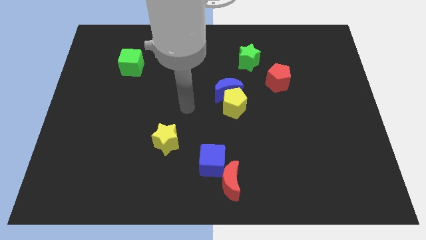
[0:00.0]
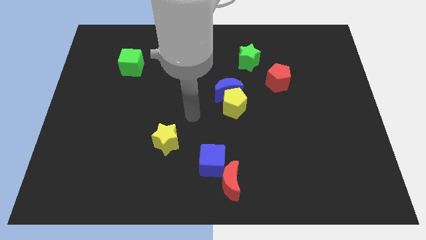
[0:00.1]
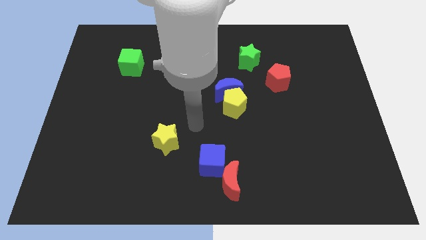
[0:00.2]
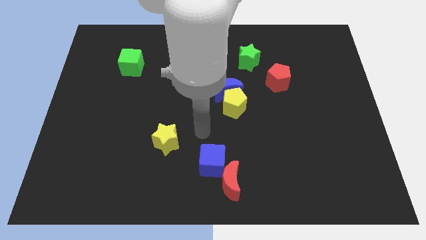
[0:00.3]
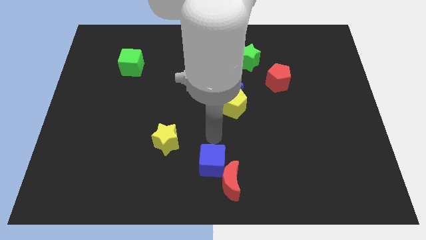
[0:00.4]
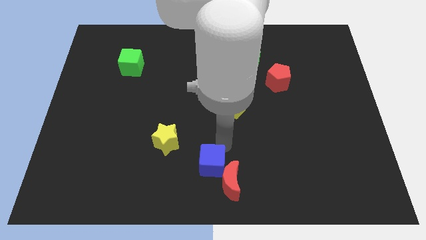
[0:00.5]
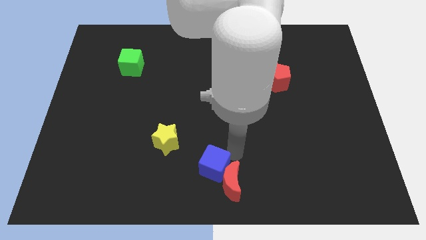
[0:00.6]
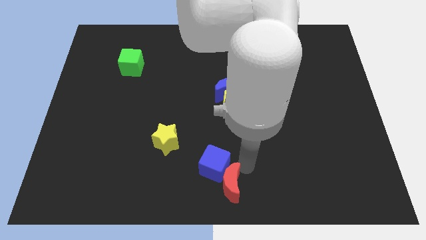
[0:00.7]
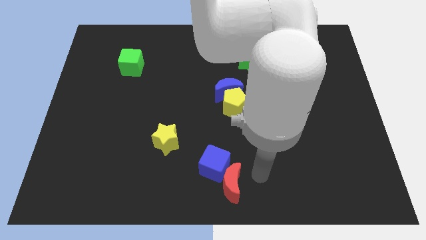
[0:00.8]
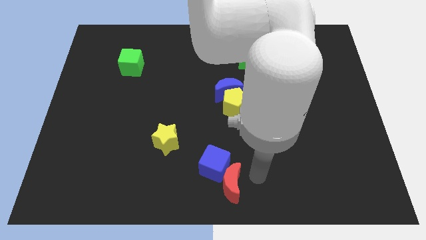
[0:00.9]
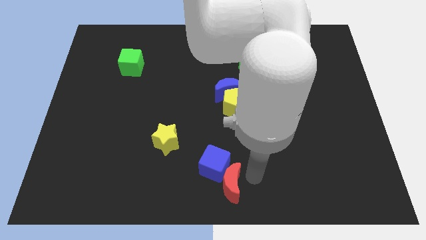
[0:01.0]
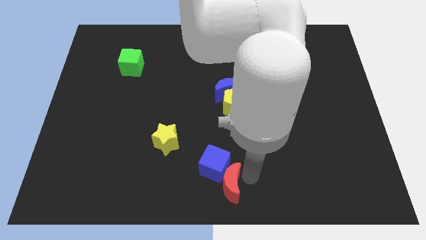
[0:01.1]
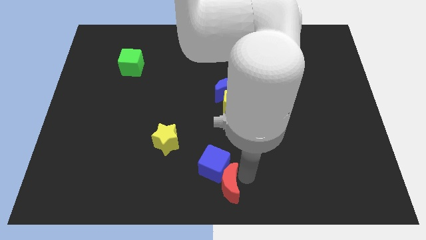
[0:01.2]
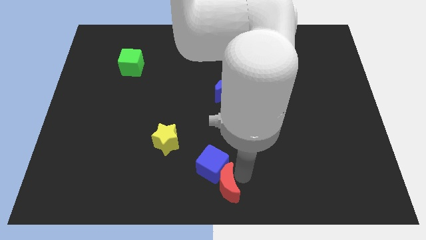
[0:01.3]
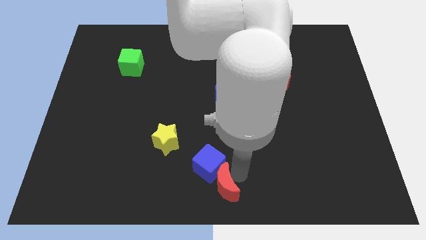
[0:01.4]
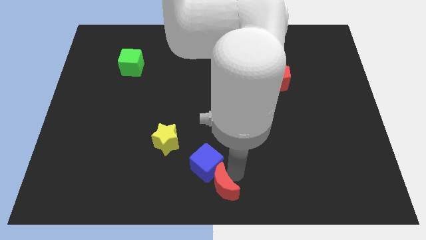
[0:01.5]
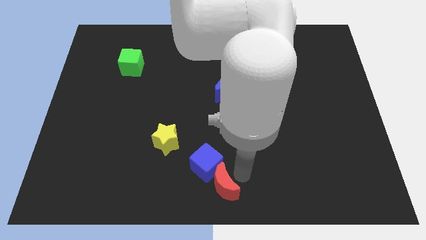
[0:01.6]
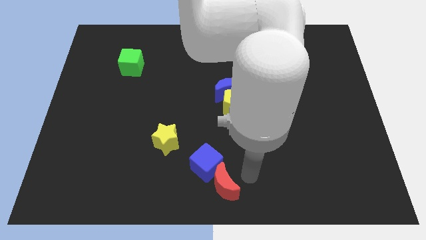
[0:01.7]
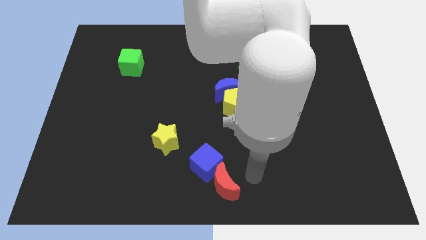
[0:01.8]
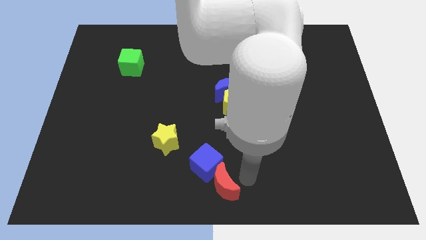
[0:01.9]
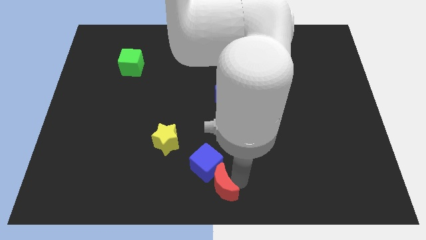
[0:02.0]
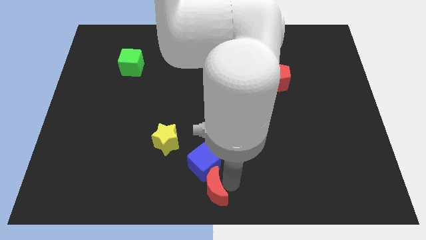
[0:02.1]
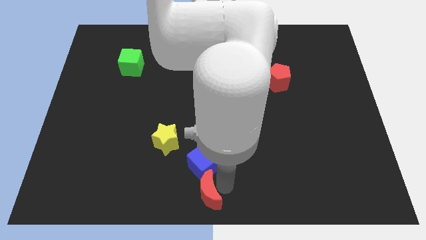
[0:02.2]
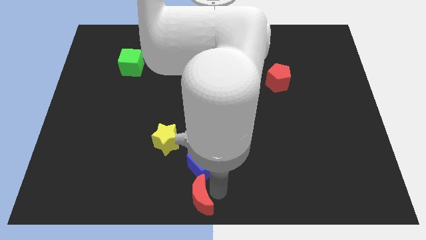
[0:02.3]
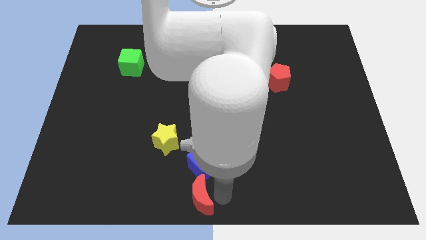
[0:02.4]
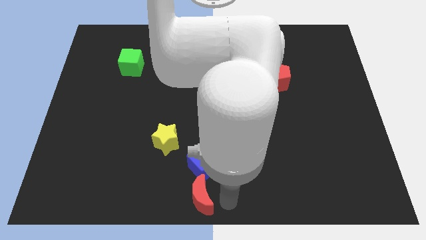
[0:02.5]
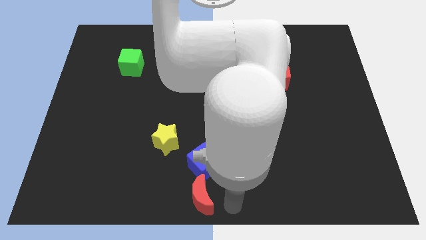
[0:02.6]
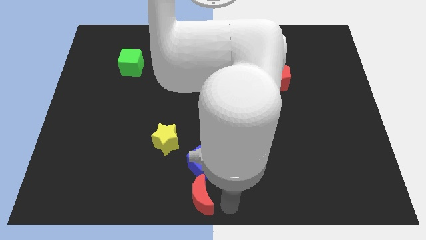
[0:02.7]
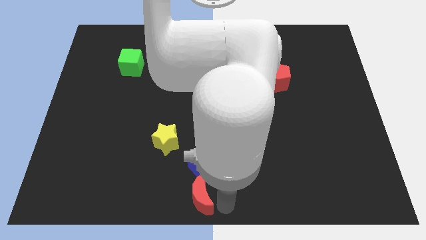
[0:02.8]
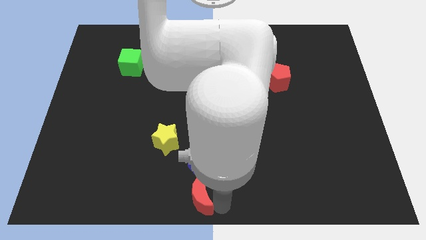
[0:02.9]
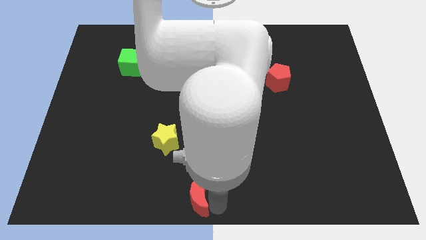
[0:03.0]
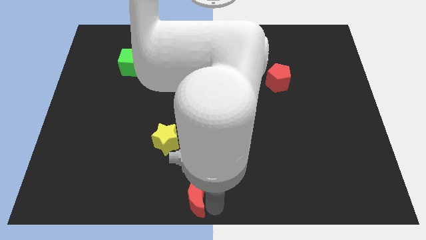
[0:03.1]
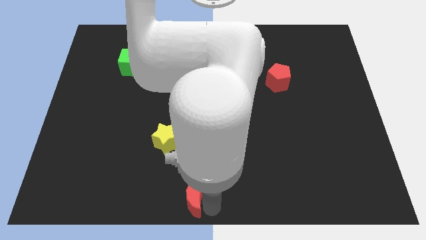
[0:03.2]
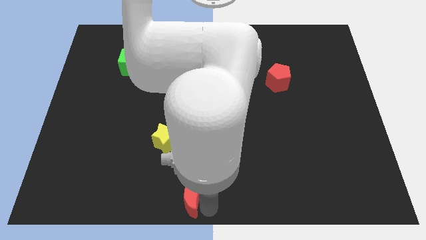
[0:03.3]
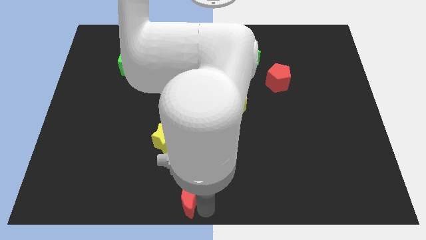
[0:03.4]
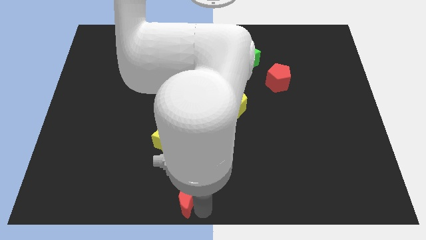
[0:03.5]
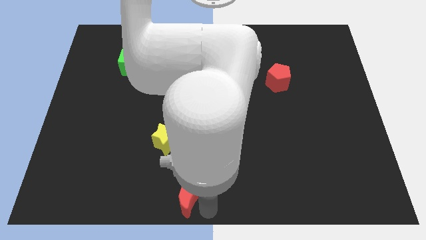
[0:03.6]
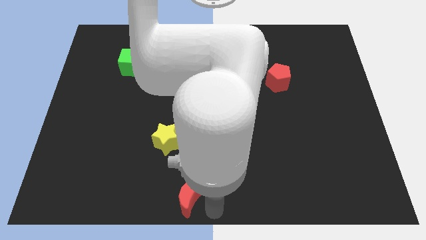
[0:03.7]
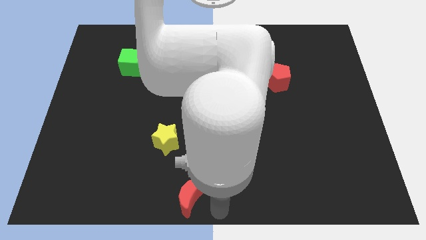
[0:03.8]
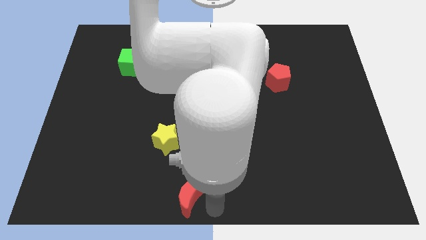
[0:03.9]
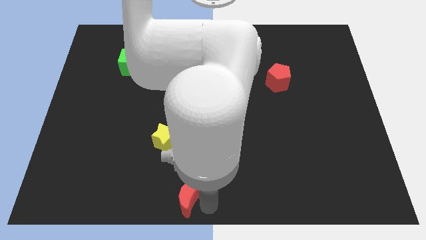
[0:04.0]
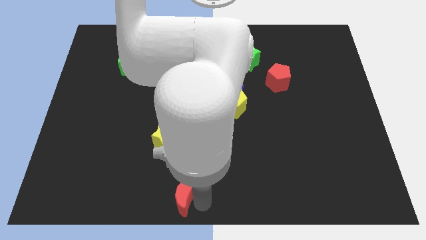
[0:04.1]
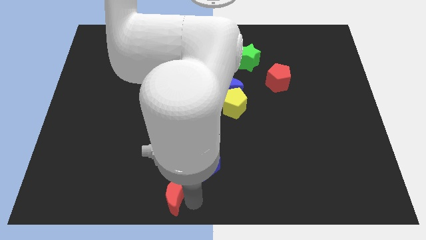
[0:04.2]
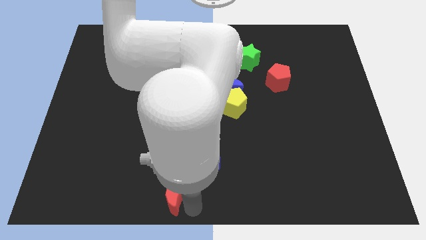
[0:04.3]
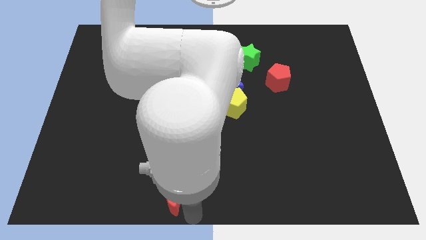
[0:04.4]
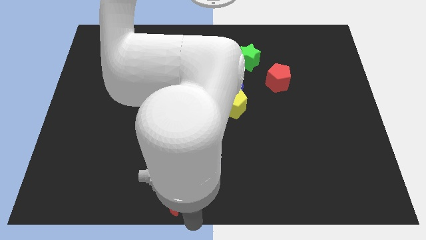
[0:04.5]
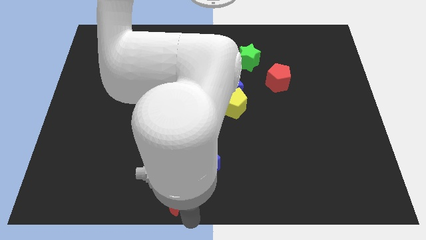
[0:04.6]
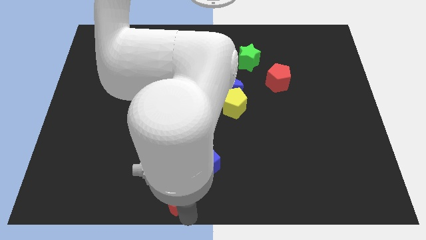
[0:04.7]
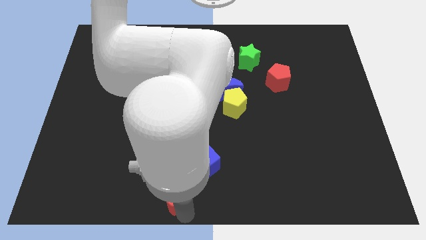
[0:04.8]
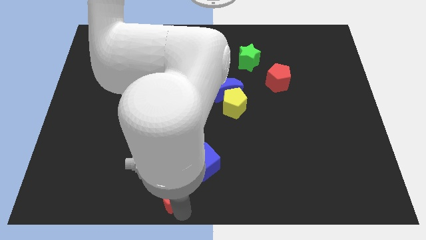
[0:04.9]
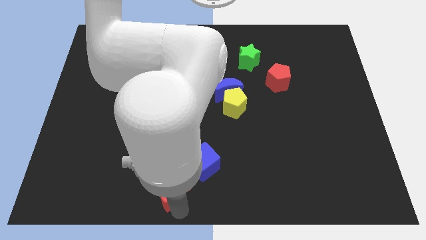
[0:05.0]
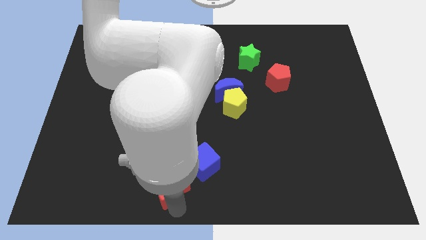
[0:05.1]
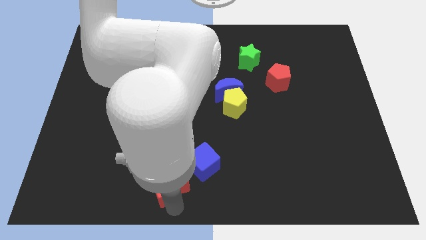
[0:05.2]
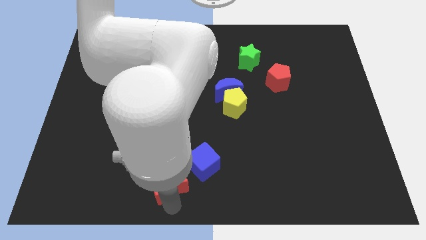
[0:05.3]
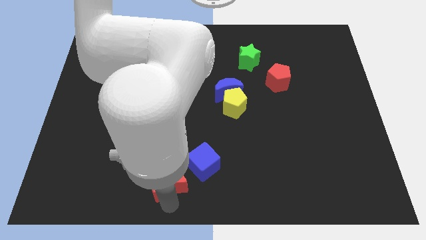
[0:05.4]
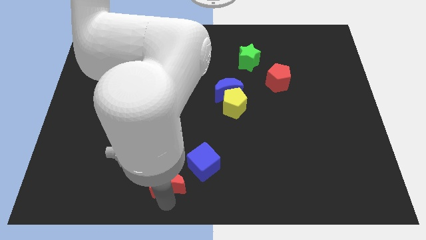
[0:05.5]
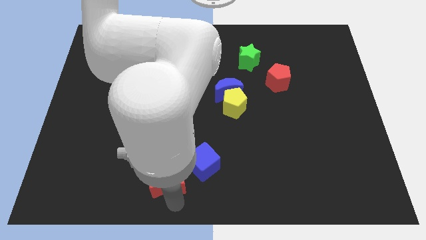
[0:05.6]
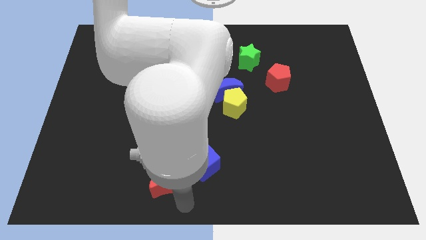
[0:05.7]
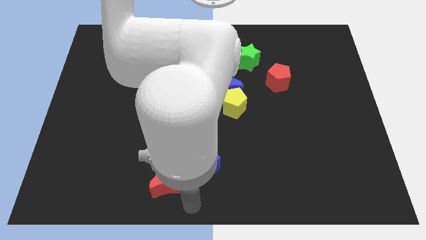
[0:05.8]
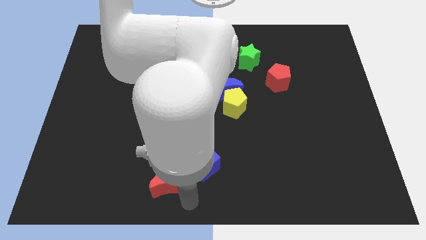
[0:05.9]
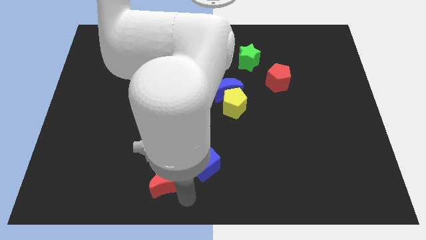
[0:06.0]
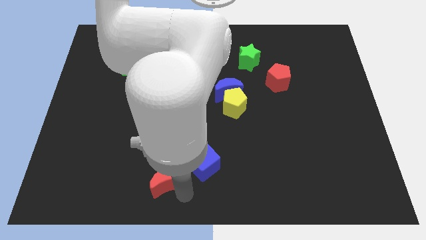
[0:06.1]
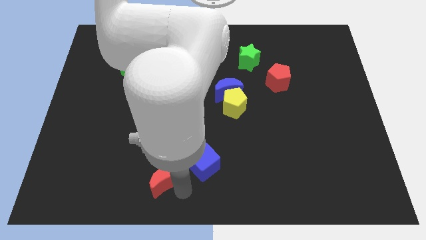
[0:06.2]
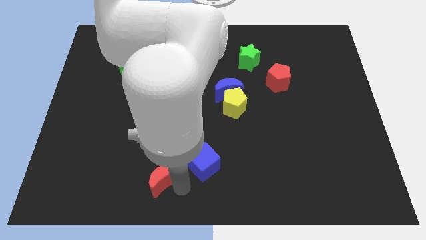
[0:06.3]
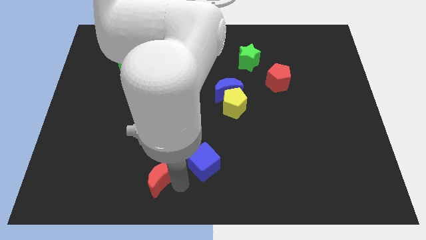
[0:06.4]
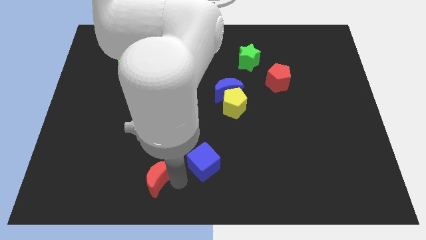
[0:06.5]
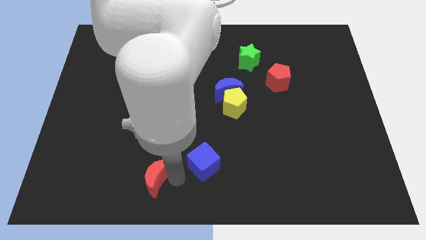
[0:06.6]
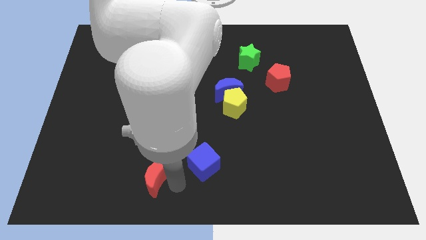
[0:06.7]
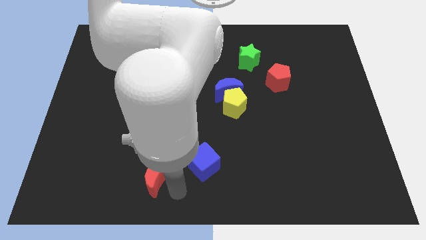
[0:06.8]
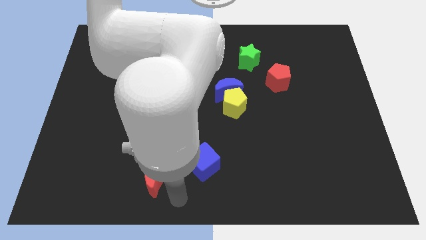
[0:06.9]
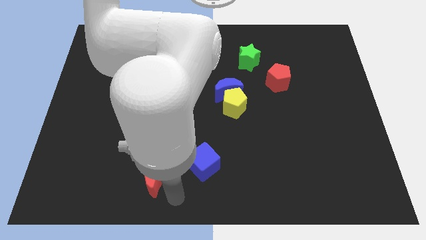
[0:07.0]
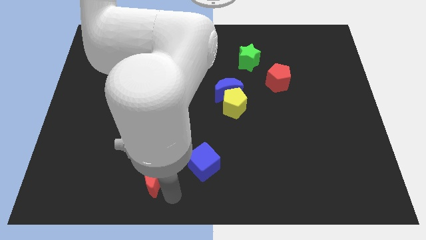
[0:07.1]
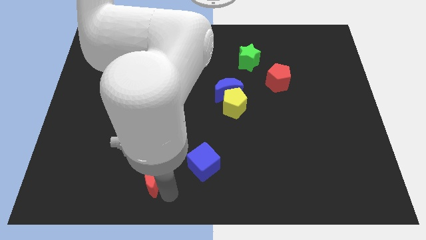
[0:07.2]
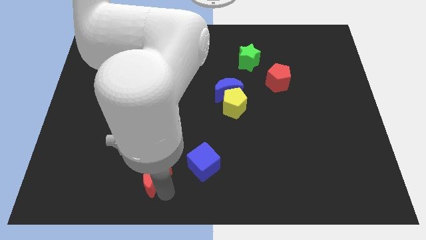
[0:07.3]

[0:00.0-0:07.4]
push the red moon to the bottom left of the yellow star

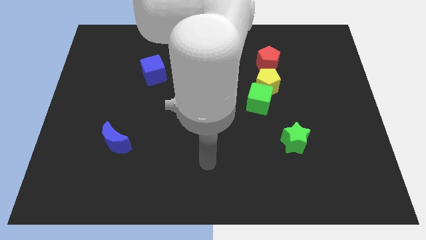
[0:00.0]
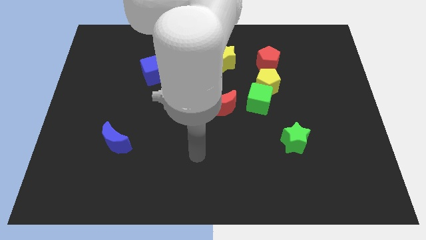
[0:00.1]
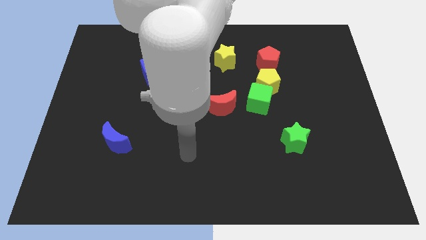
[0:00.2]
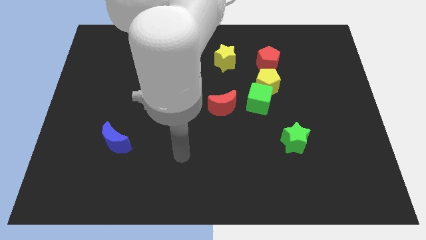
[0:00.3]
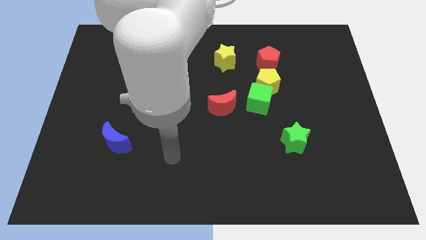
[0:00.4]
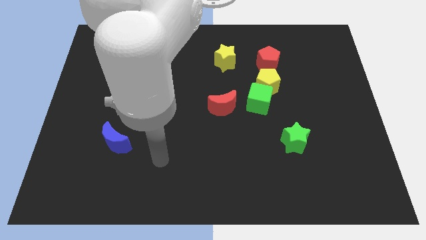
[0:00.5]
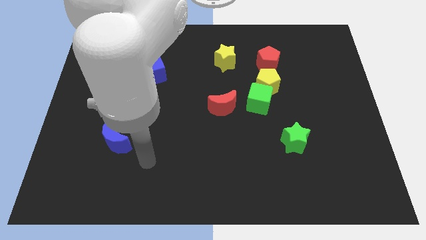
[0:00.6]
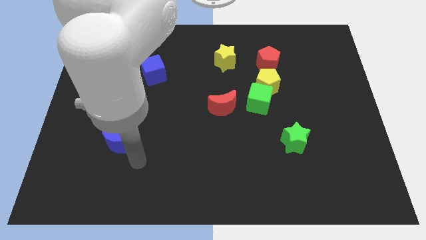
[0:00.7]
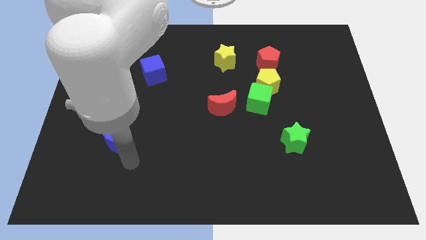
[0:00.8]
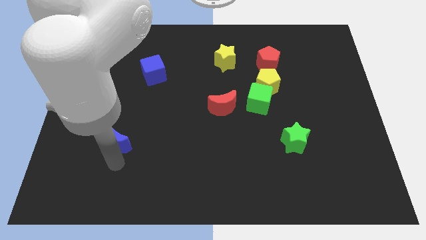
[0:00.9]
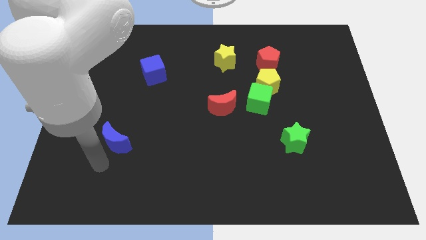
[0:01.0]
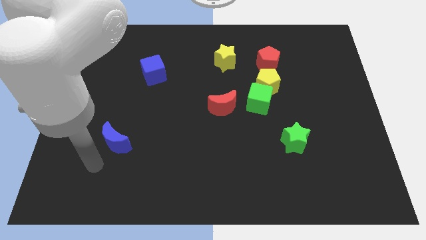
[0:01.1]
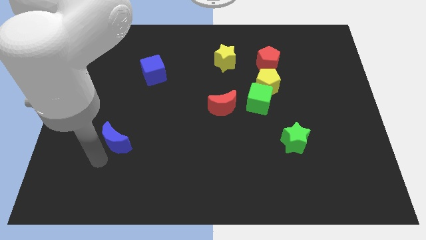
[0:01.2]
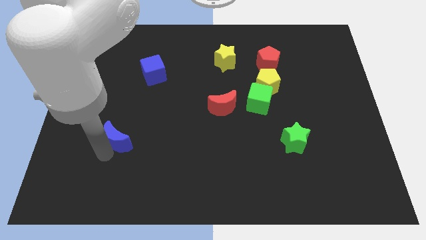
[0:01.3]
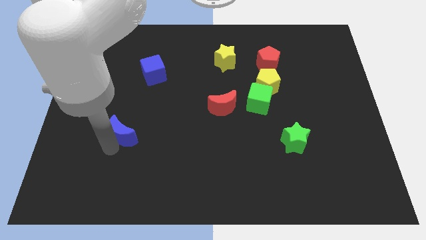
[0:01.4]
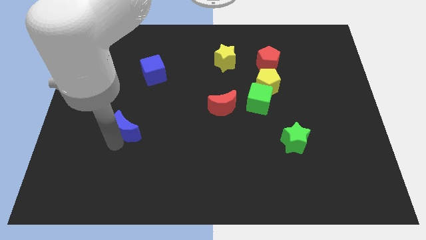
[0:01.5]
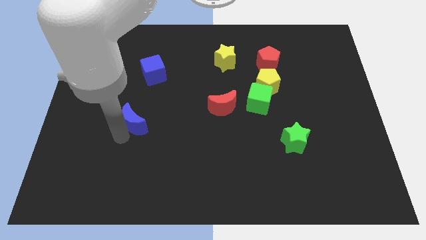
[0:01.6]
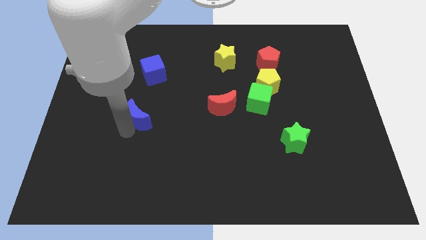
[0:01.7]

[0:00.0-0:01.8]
put the blue moon to the bottom of the blue cube
